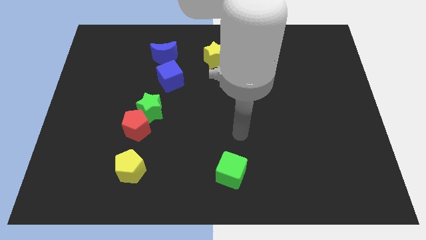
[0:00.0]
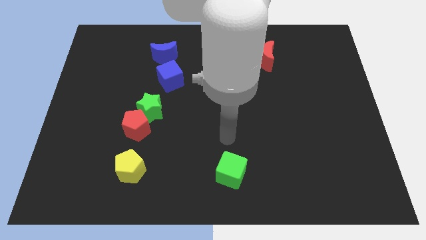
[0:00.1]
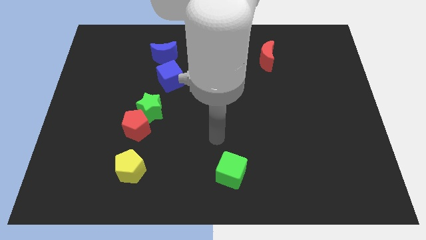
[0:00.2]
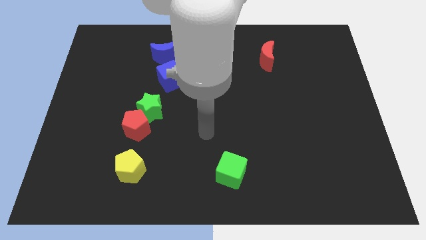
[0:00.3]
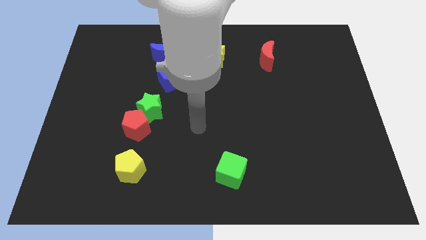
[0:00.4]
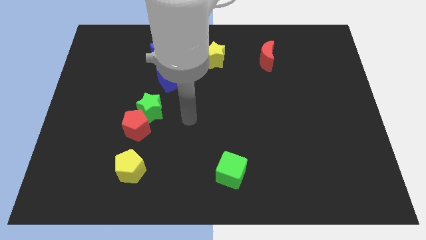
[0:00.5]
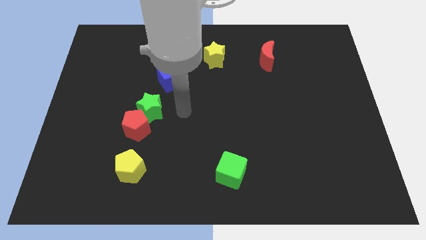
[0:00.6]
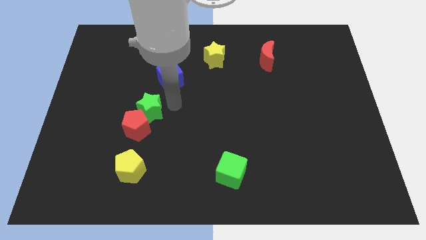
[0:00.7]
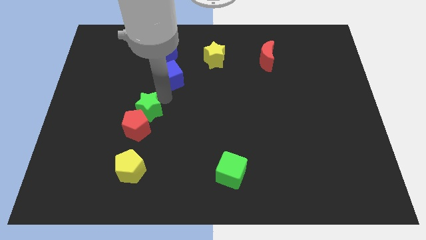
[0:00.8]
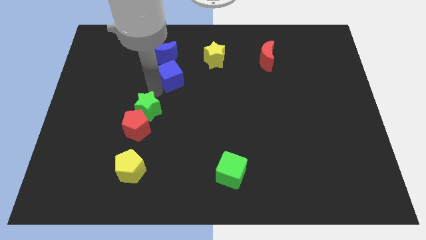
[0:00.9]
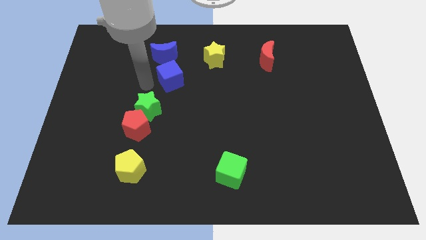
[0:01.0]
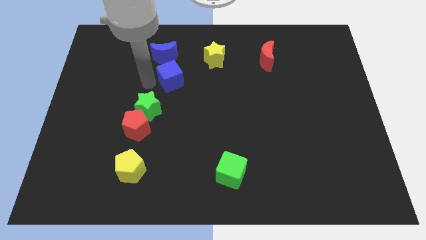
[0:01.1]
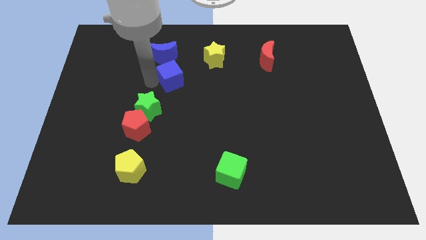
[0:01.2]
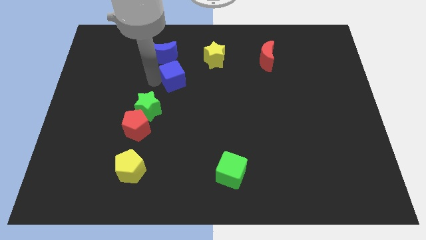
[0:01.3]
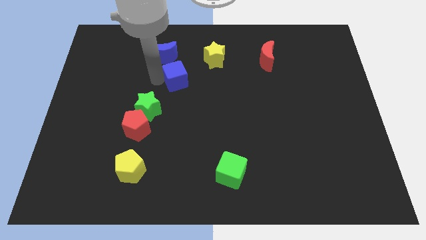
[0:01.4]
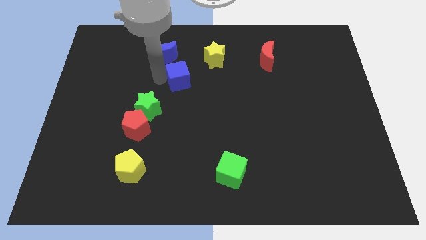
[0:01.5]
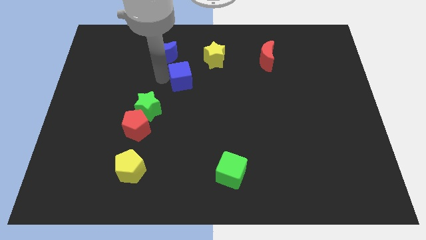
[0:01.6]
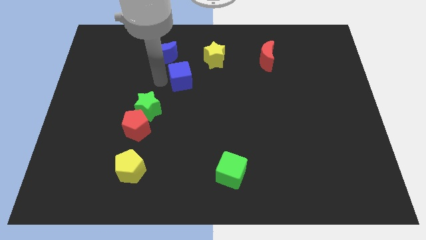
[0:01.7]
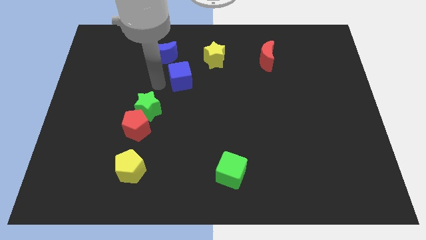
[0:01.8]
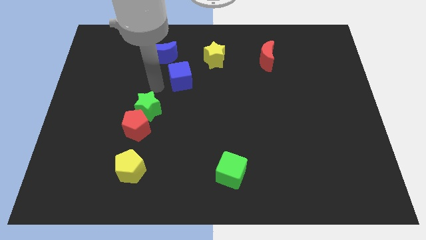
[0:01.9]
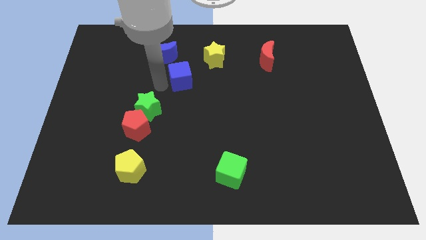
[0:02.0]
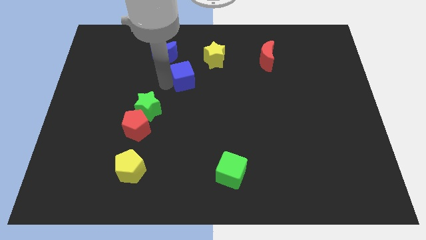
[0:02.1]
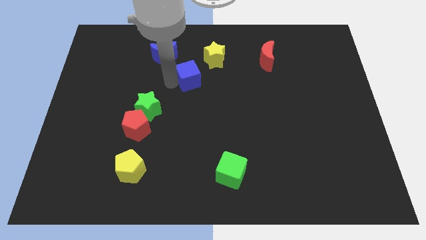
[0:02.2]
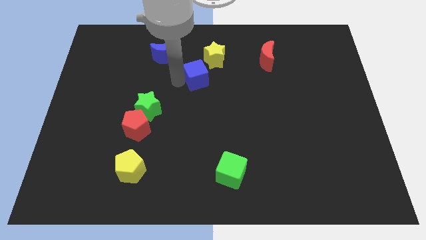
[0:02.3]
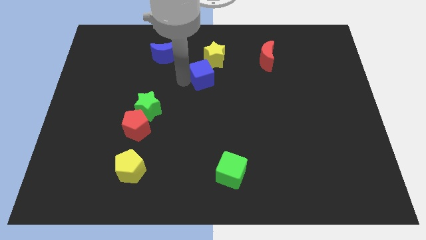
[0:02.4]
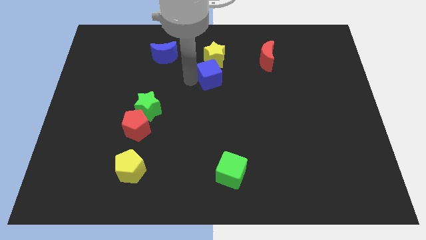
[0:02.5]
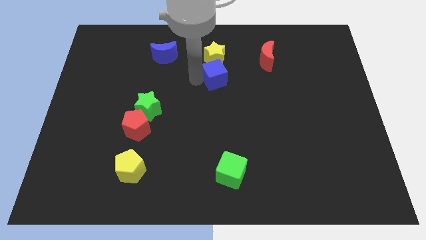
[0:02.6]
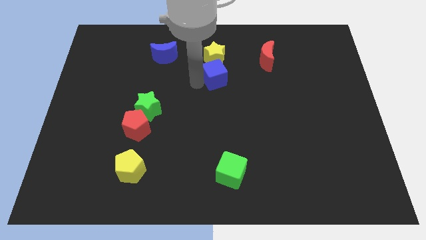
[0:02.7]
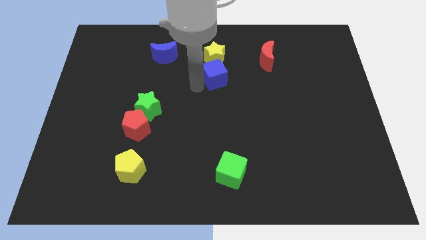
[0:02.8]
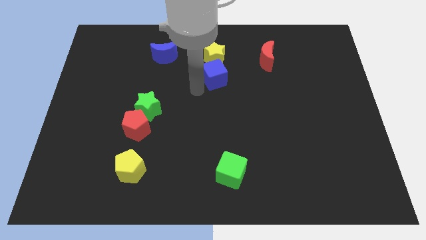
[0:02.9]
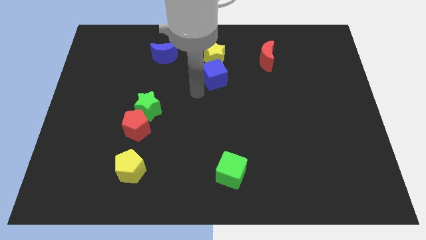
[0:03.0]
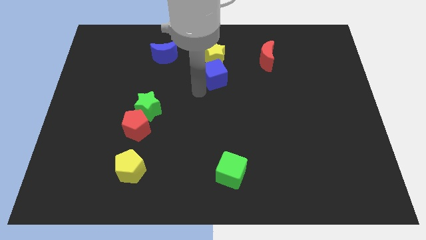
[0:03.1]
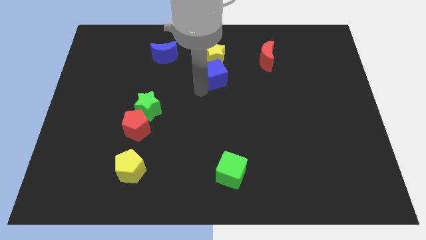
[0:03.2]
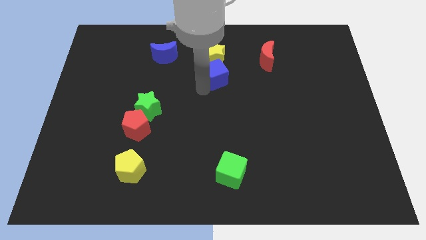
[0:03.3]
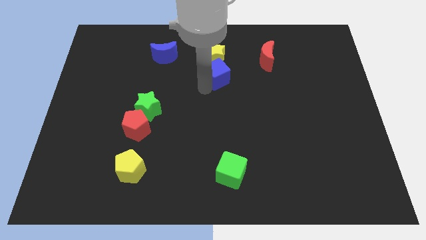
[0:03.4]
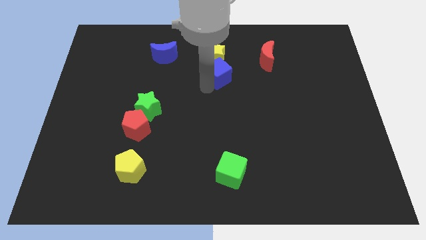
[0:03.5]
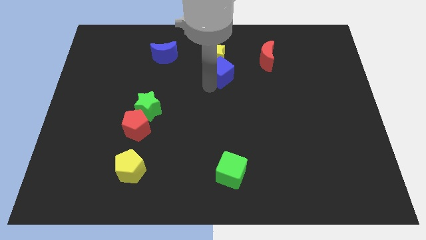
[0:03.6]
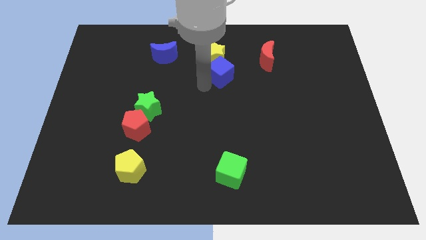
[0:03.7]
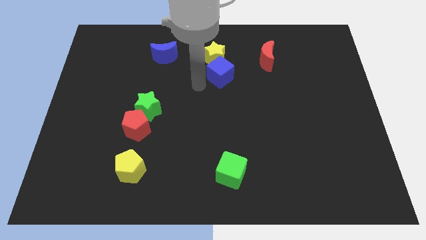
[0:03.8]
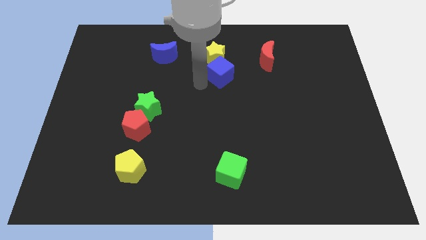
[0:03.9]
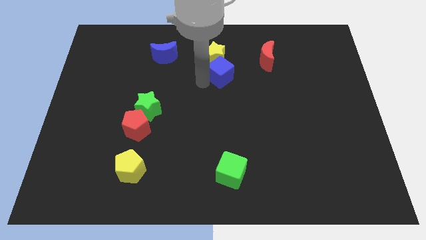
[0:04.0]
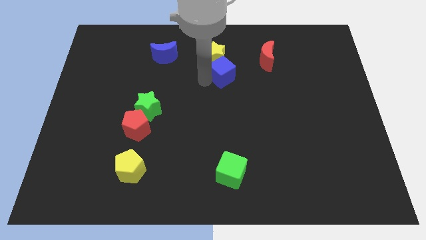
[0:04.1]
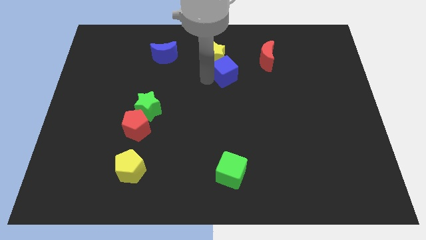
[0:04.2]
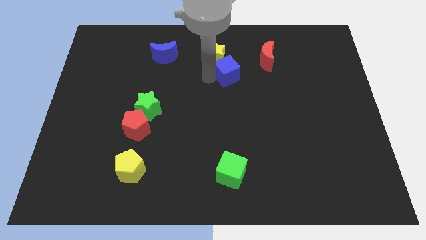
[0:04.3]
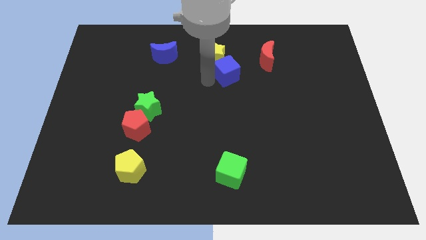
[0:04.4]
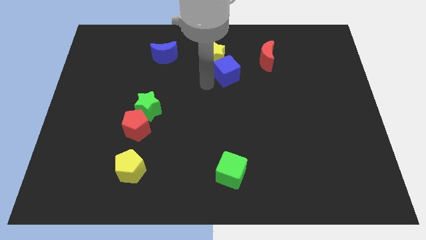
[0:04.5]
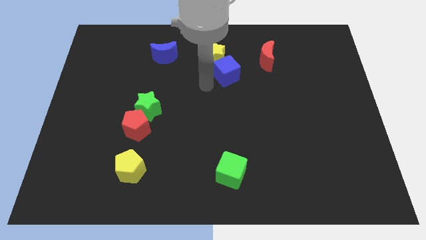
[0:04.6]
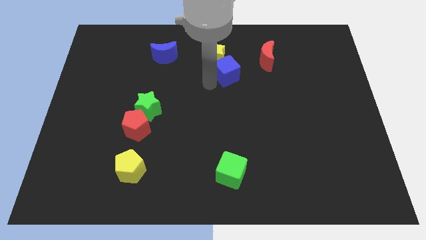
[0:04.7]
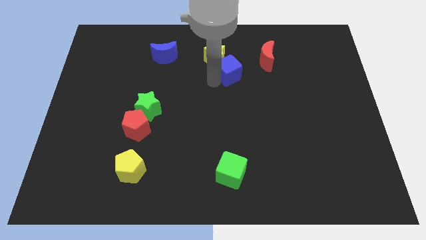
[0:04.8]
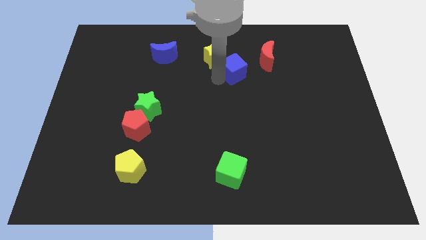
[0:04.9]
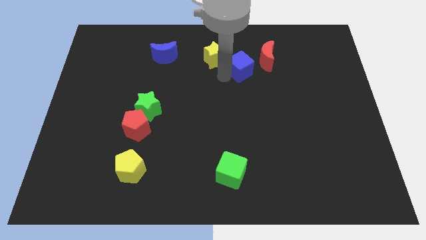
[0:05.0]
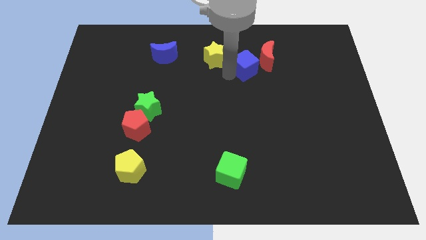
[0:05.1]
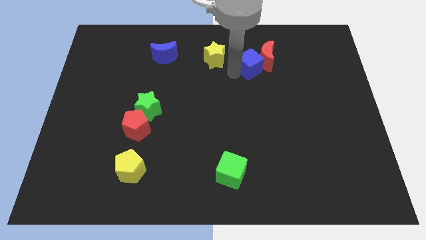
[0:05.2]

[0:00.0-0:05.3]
move the blue cube towards the red moon

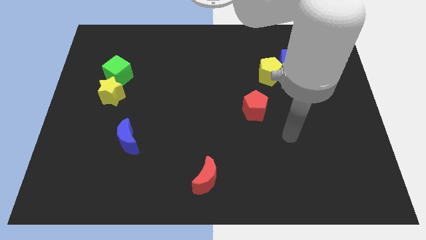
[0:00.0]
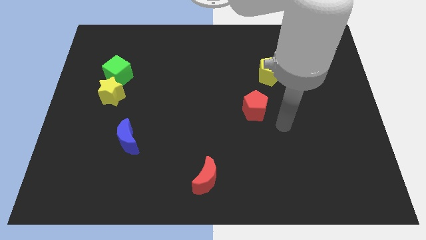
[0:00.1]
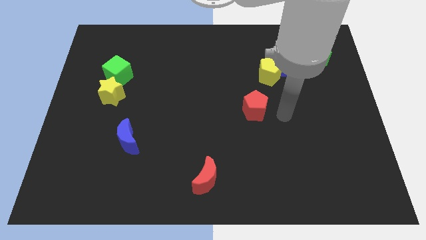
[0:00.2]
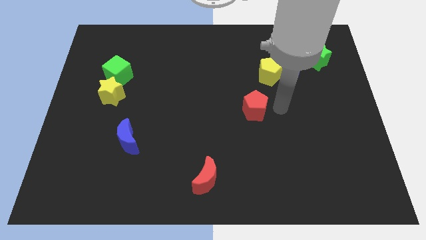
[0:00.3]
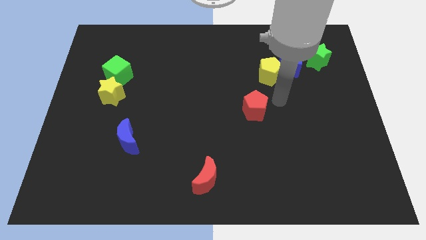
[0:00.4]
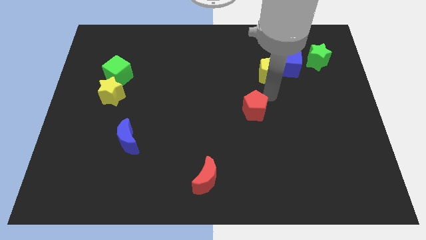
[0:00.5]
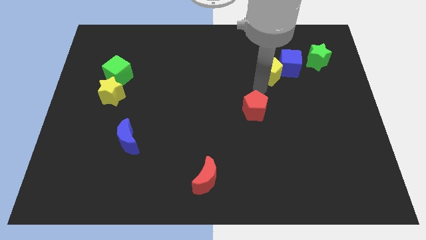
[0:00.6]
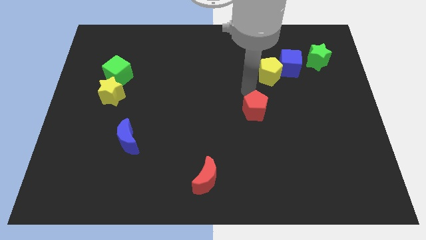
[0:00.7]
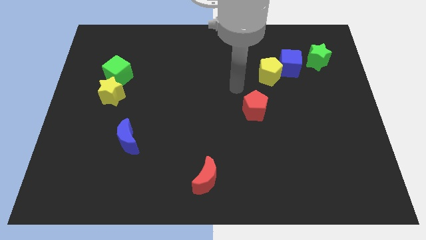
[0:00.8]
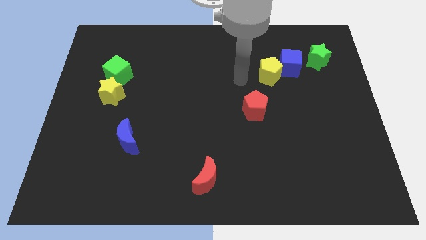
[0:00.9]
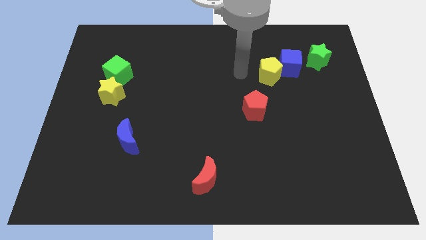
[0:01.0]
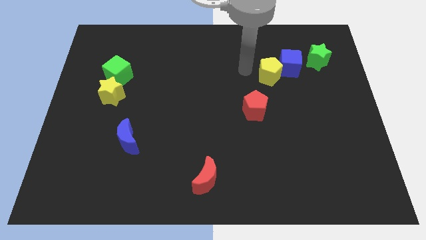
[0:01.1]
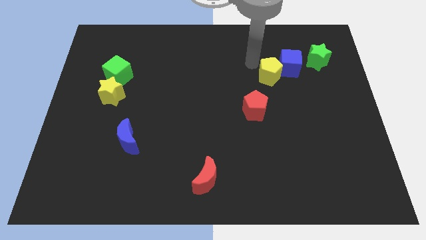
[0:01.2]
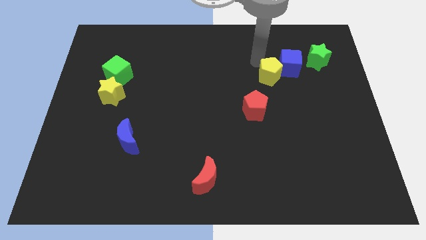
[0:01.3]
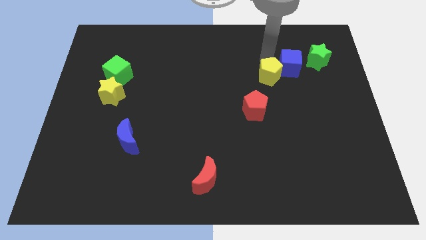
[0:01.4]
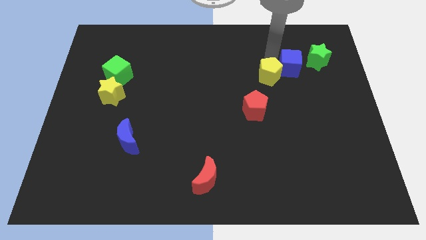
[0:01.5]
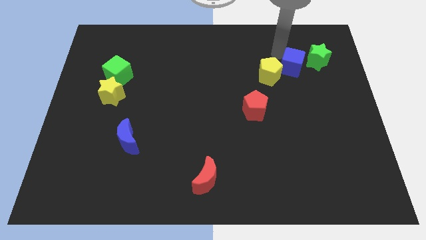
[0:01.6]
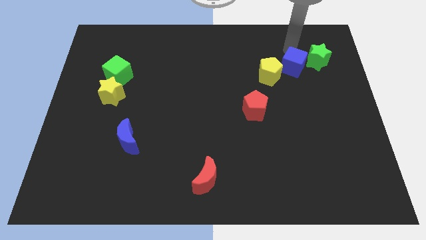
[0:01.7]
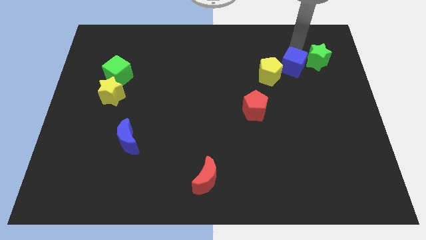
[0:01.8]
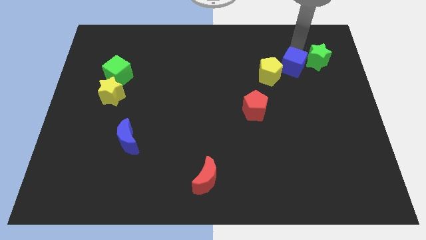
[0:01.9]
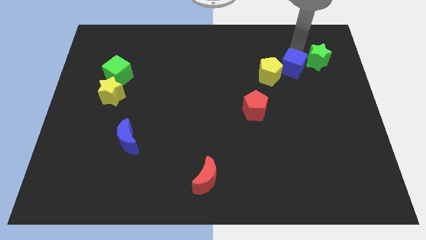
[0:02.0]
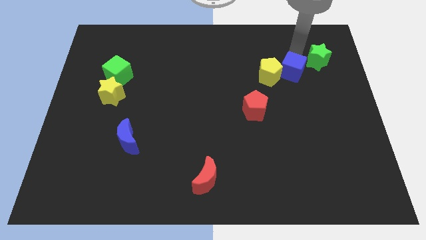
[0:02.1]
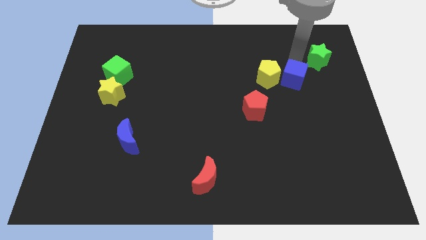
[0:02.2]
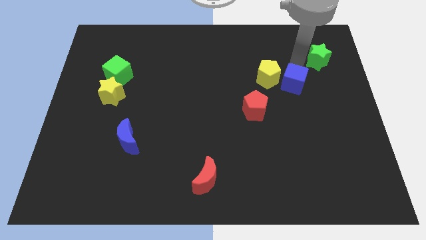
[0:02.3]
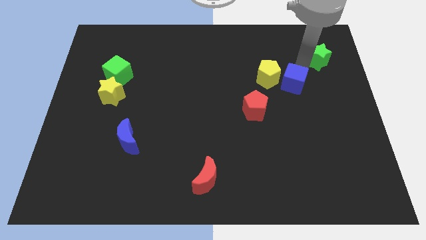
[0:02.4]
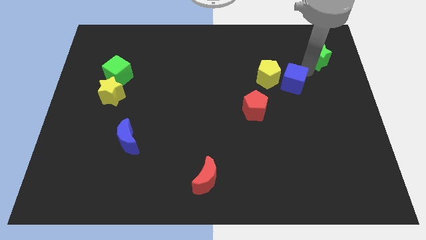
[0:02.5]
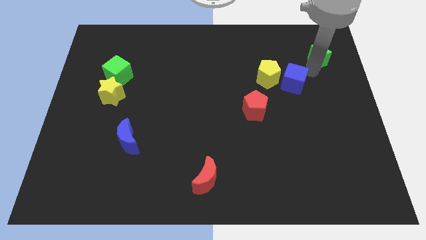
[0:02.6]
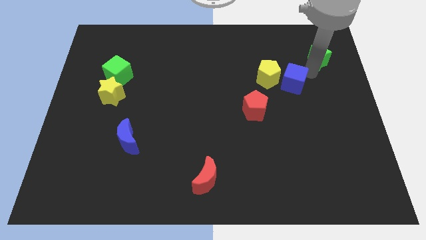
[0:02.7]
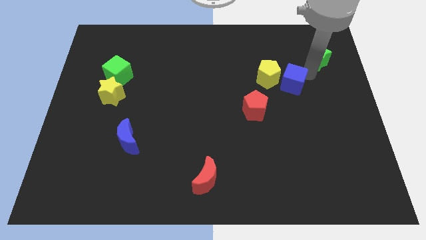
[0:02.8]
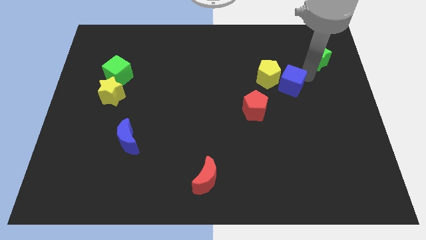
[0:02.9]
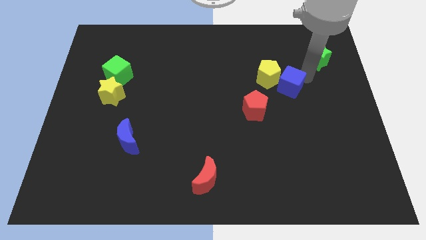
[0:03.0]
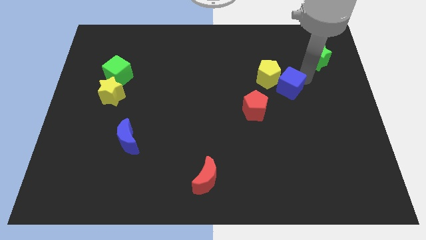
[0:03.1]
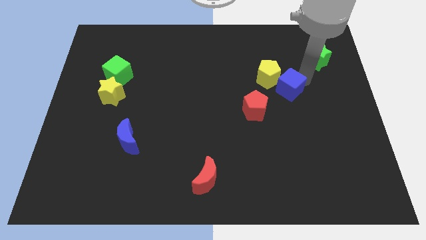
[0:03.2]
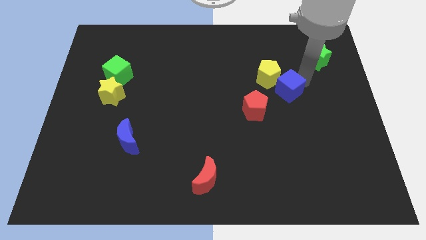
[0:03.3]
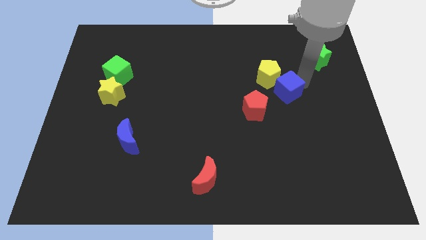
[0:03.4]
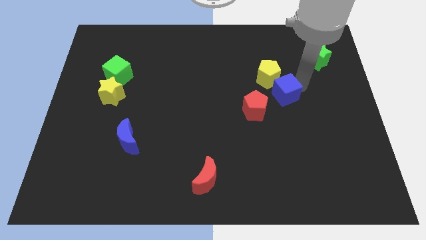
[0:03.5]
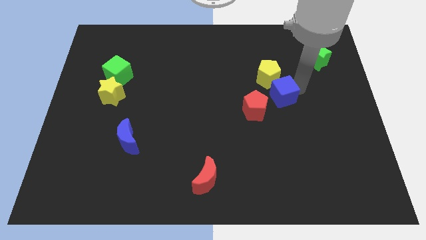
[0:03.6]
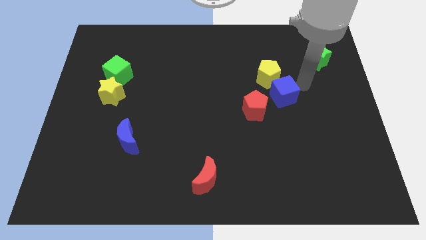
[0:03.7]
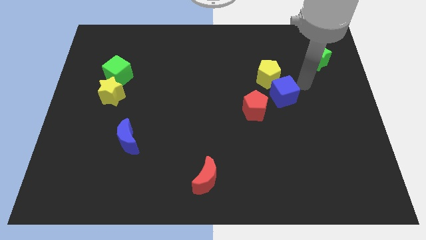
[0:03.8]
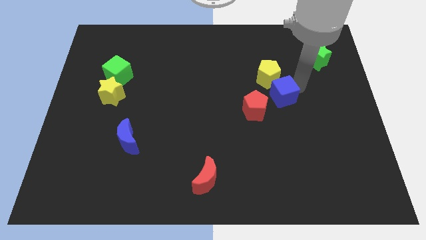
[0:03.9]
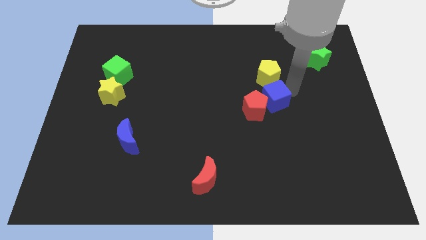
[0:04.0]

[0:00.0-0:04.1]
put the blue cube close to the red pentagon
